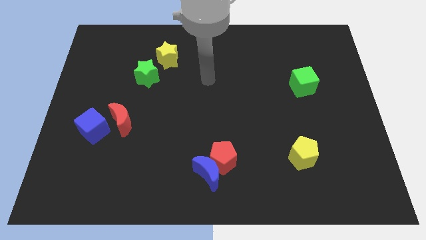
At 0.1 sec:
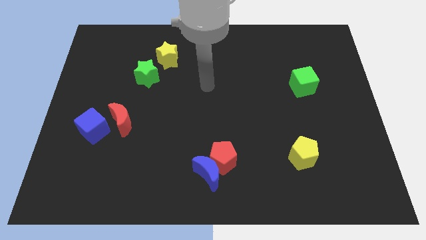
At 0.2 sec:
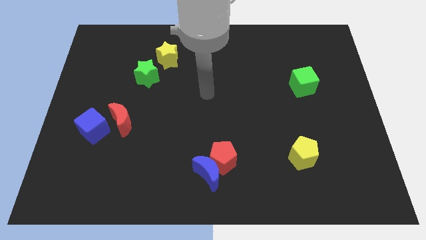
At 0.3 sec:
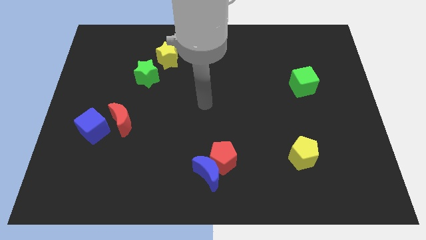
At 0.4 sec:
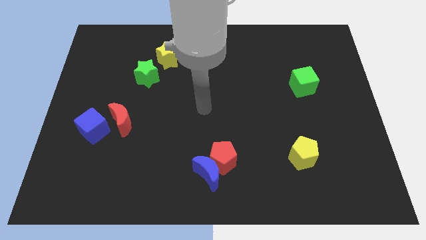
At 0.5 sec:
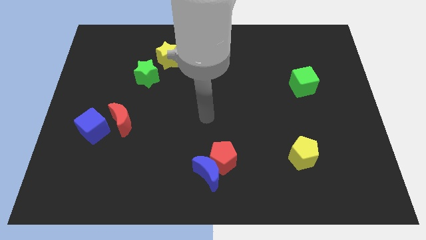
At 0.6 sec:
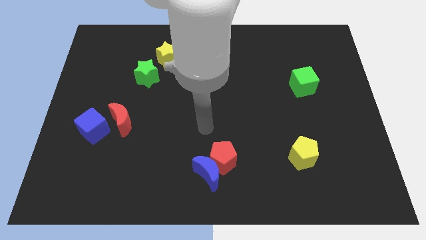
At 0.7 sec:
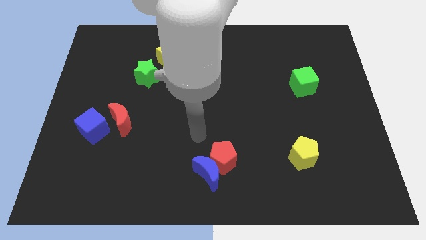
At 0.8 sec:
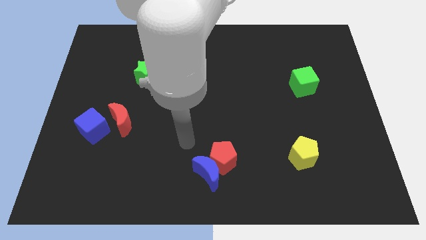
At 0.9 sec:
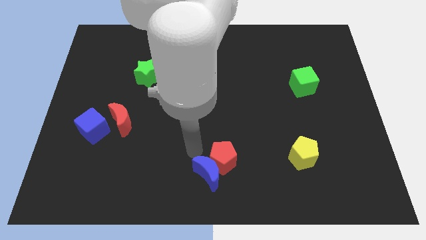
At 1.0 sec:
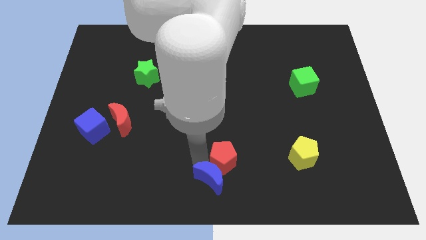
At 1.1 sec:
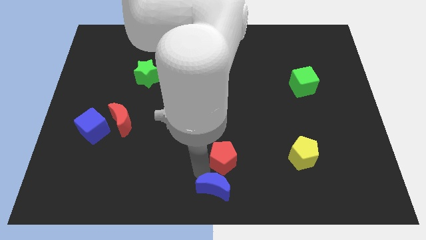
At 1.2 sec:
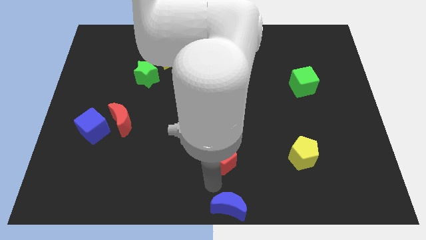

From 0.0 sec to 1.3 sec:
separate the red pentagon from the blue moon

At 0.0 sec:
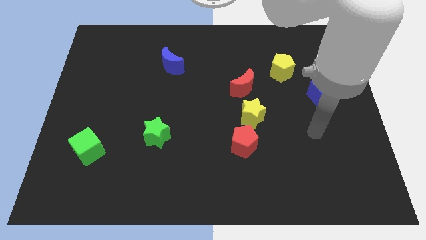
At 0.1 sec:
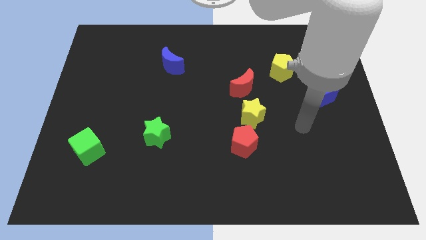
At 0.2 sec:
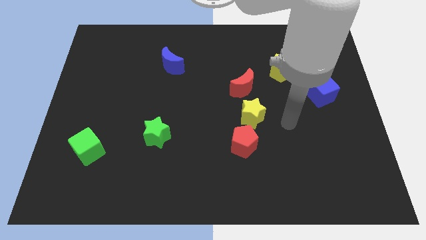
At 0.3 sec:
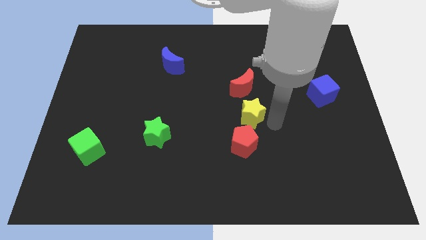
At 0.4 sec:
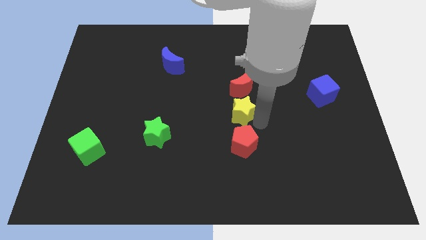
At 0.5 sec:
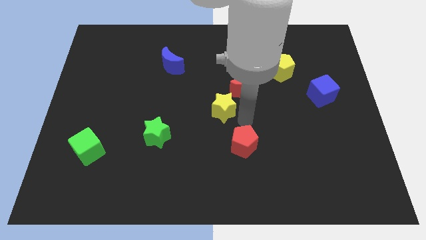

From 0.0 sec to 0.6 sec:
separate the red pentagon from the yellow star

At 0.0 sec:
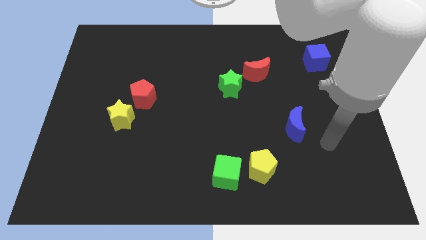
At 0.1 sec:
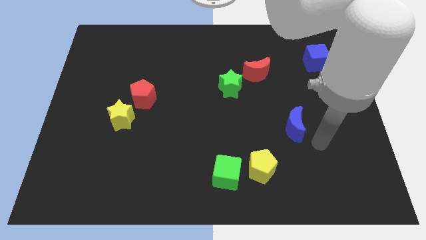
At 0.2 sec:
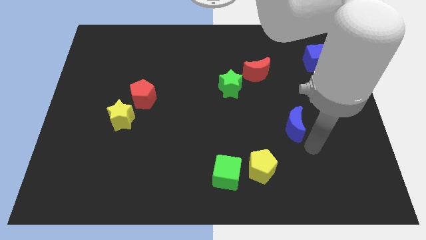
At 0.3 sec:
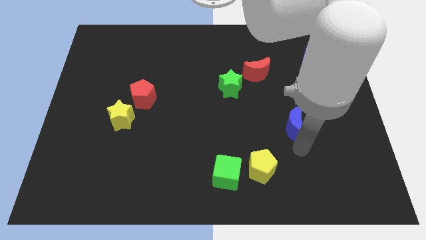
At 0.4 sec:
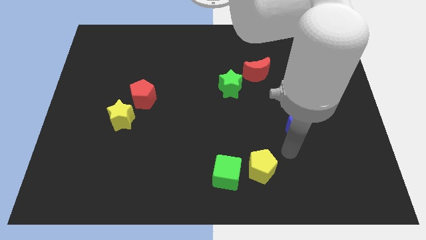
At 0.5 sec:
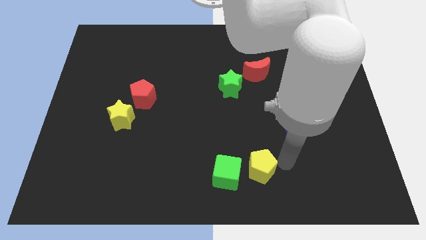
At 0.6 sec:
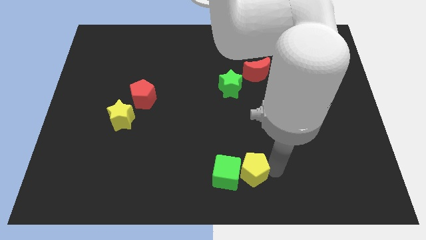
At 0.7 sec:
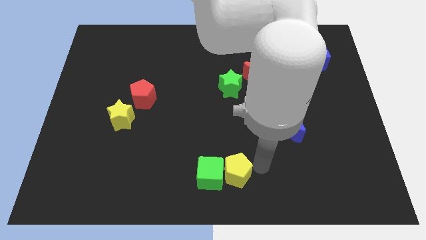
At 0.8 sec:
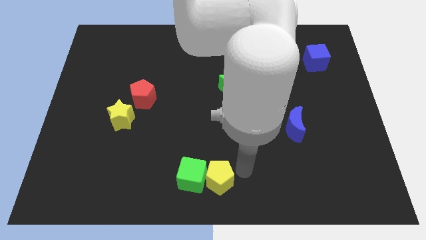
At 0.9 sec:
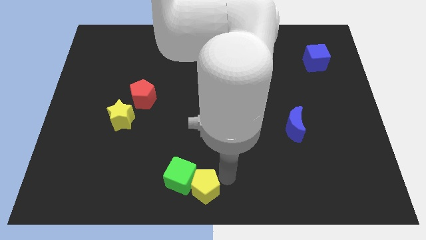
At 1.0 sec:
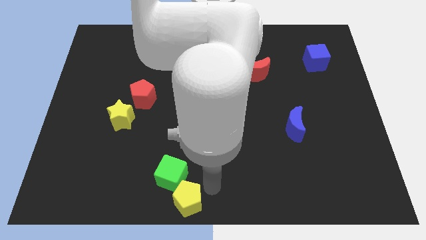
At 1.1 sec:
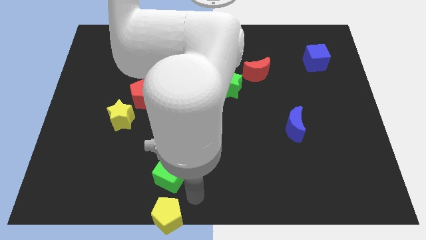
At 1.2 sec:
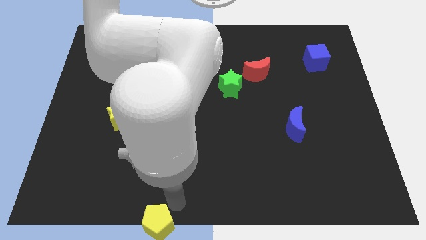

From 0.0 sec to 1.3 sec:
move the green cube away from the yellow pentagon

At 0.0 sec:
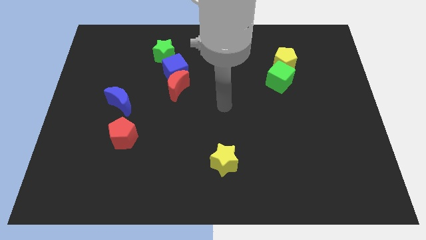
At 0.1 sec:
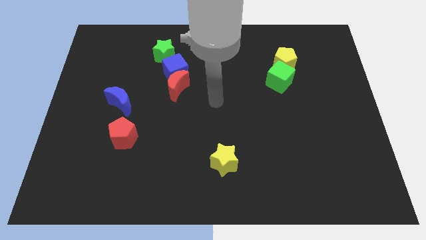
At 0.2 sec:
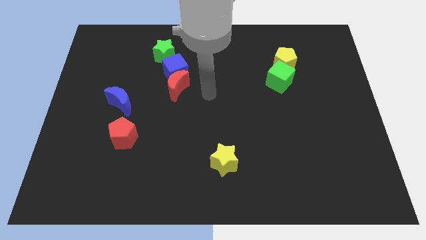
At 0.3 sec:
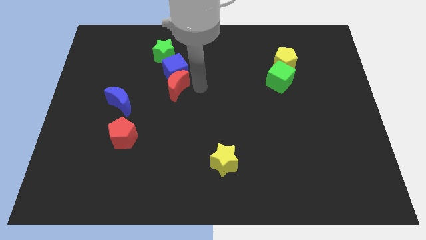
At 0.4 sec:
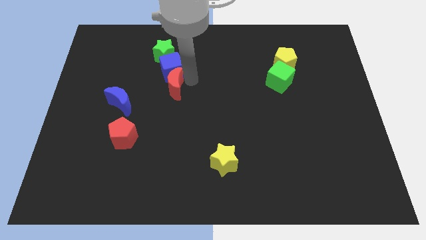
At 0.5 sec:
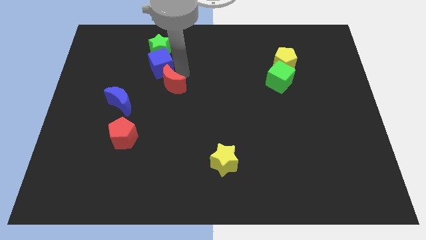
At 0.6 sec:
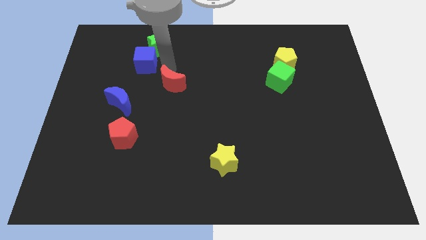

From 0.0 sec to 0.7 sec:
move the red moon away from the blue cube

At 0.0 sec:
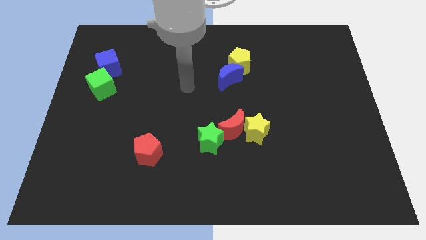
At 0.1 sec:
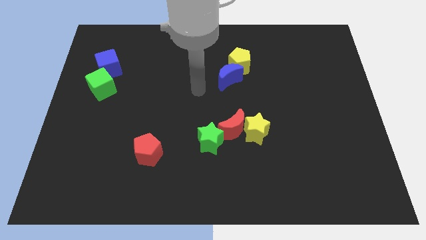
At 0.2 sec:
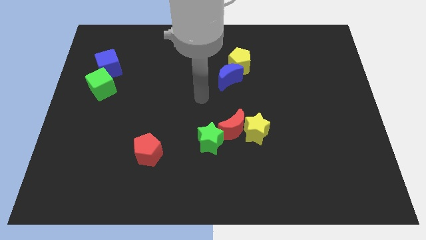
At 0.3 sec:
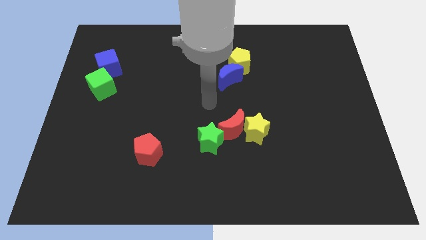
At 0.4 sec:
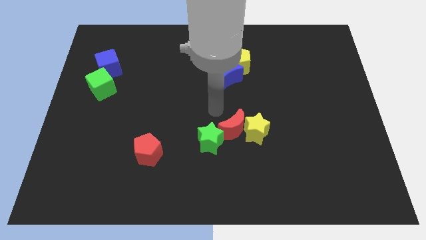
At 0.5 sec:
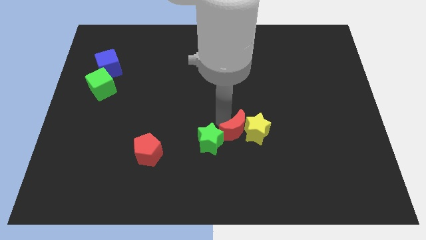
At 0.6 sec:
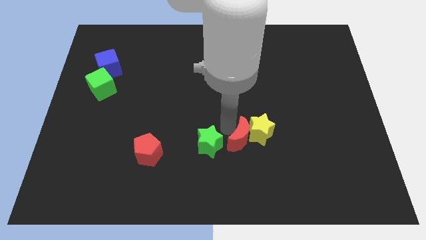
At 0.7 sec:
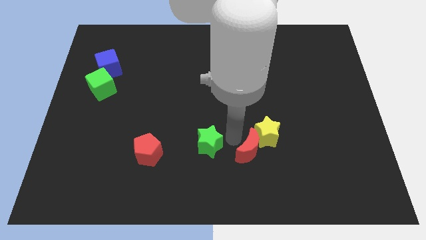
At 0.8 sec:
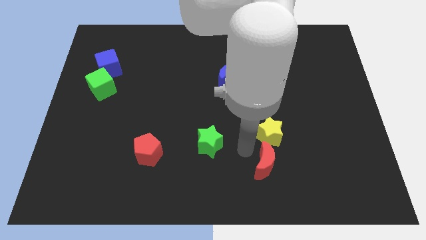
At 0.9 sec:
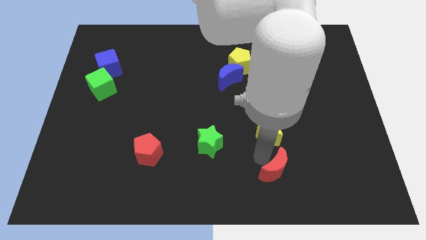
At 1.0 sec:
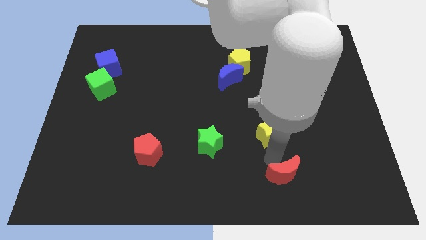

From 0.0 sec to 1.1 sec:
move the yellow star away from the red moon

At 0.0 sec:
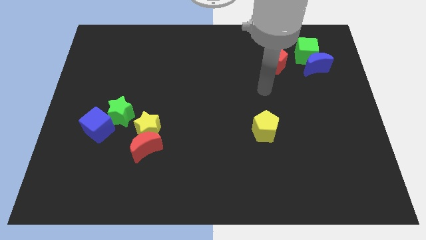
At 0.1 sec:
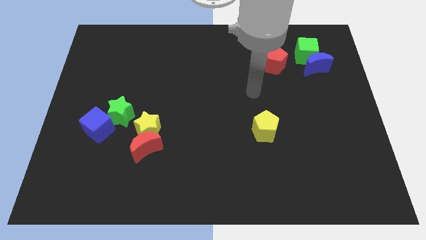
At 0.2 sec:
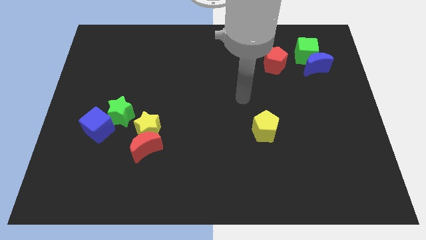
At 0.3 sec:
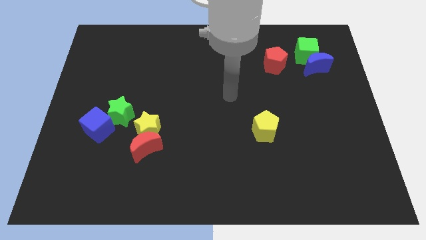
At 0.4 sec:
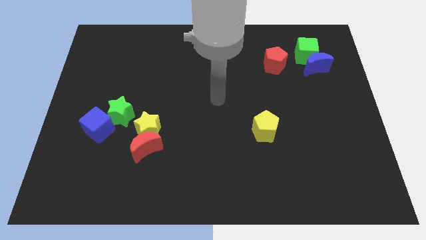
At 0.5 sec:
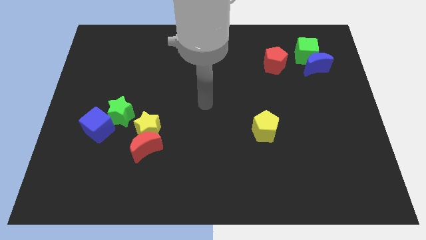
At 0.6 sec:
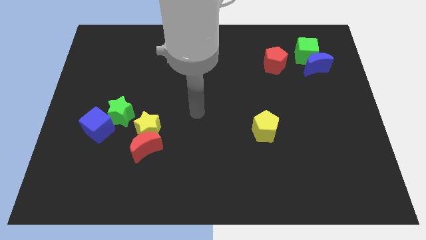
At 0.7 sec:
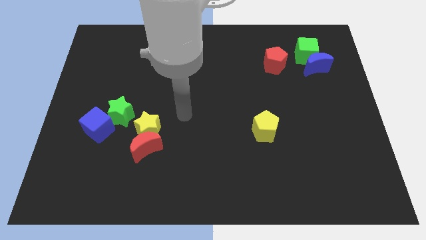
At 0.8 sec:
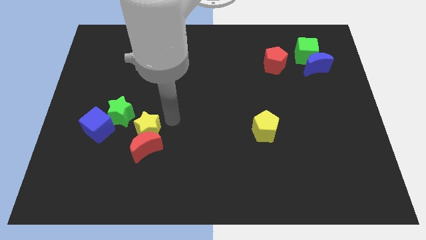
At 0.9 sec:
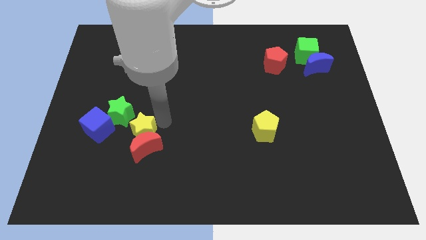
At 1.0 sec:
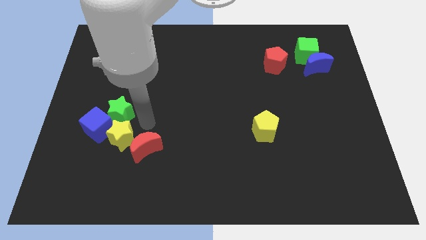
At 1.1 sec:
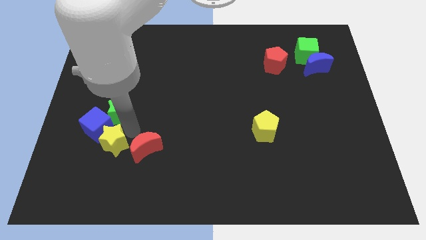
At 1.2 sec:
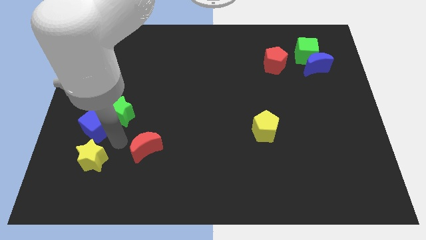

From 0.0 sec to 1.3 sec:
move the red moon away from the yellow star

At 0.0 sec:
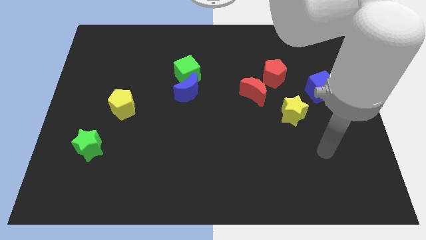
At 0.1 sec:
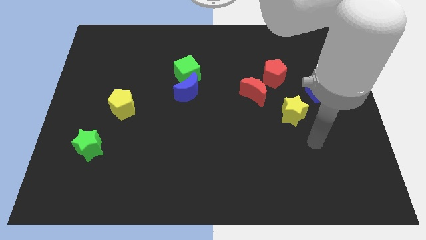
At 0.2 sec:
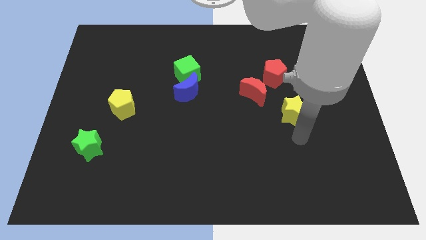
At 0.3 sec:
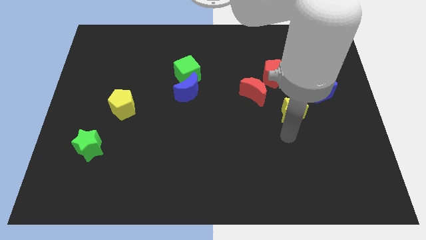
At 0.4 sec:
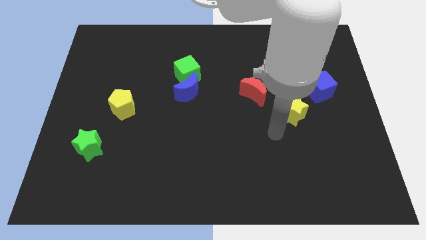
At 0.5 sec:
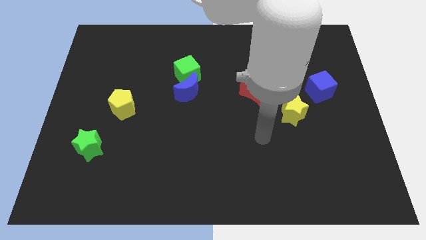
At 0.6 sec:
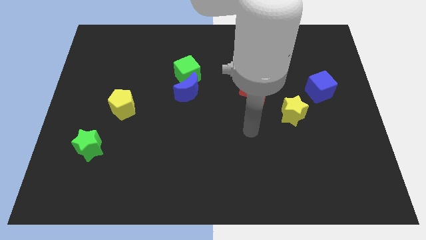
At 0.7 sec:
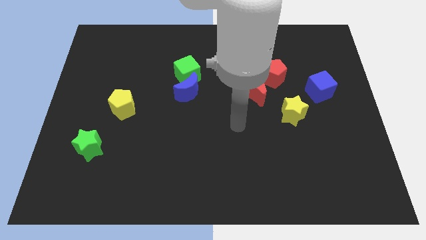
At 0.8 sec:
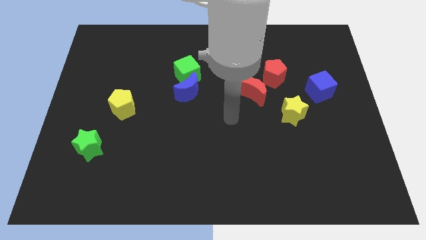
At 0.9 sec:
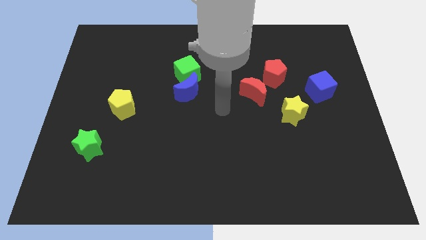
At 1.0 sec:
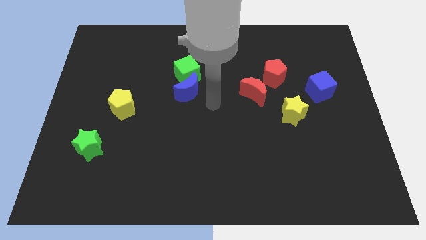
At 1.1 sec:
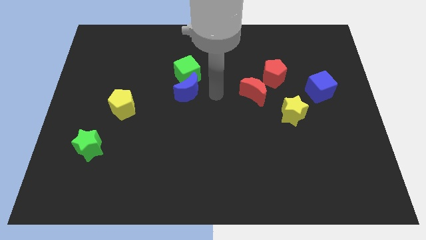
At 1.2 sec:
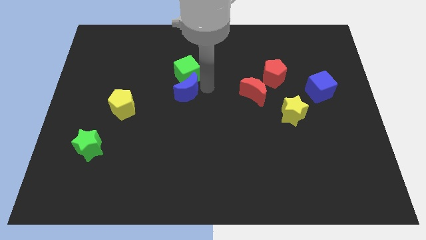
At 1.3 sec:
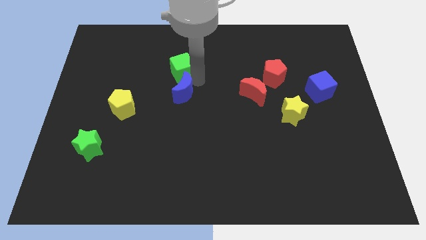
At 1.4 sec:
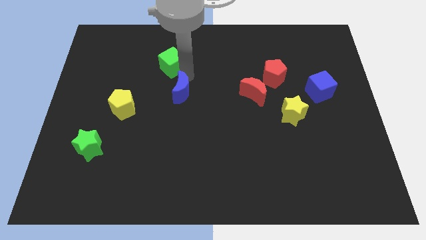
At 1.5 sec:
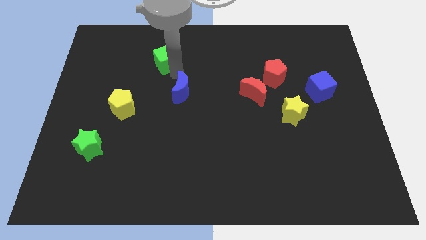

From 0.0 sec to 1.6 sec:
pull the blue moon apart from the green cube

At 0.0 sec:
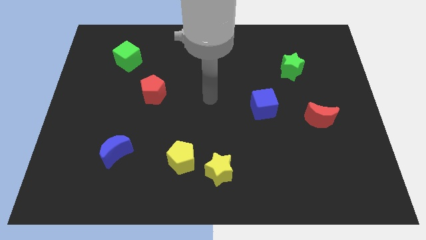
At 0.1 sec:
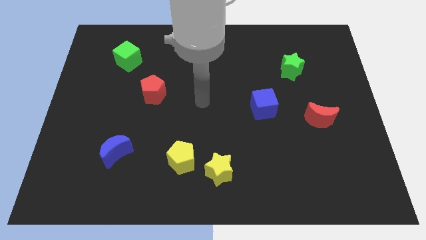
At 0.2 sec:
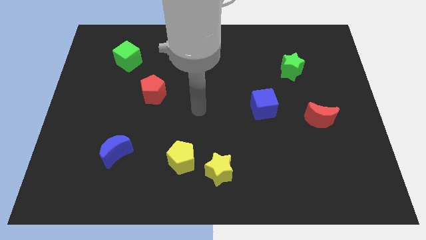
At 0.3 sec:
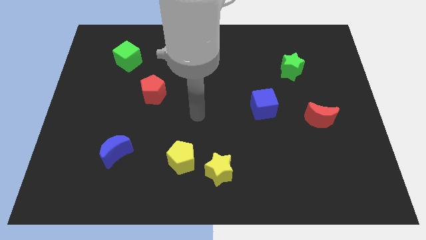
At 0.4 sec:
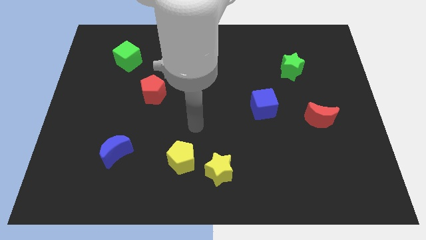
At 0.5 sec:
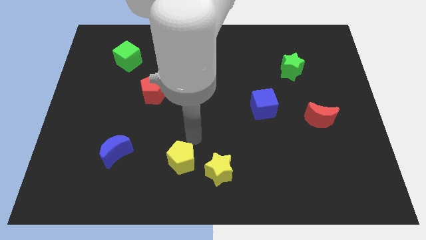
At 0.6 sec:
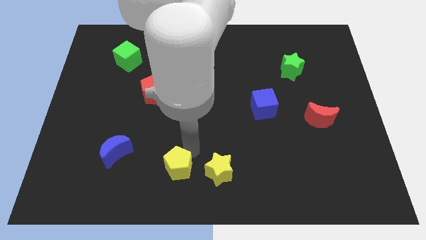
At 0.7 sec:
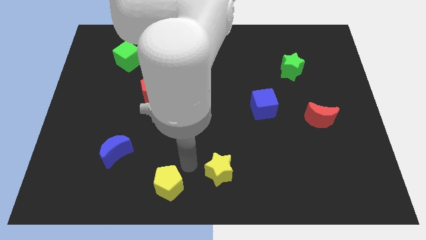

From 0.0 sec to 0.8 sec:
separate the yellow star from the yellow pentagon

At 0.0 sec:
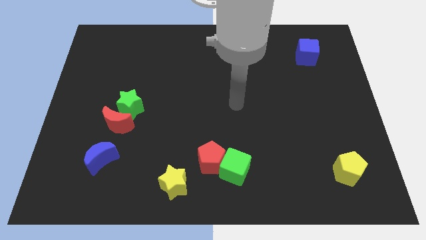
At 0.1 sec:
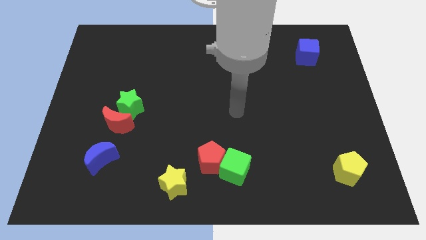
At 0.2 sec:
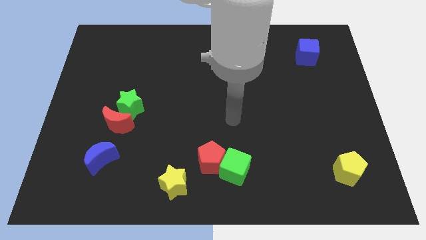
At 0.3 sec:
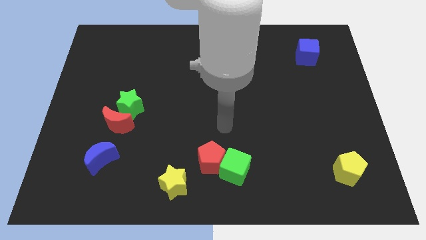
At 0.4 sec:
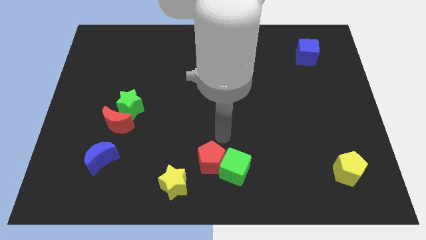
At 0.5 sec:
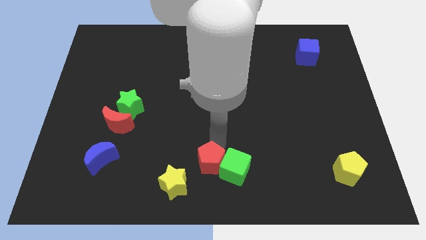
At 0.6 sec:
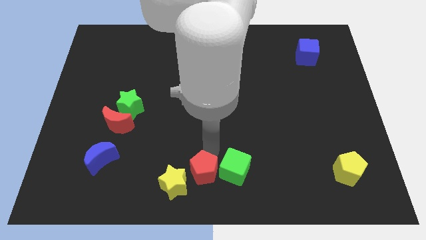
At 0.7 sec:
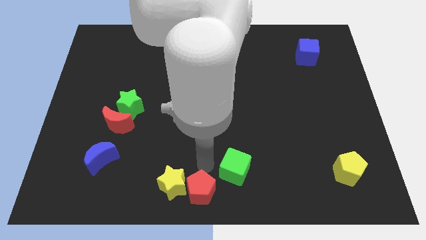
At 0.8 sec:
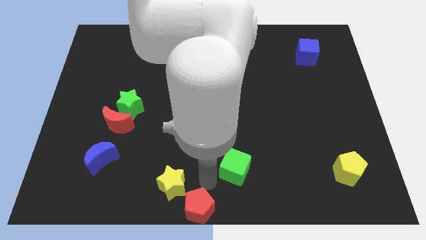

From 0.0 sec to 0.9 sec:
separate the green cube from the red pentagon
